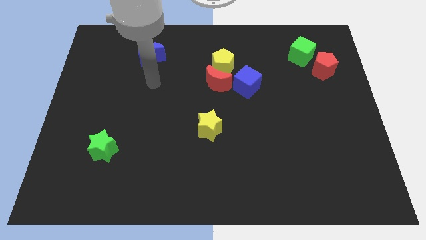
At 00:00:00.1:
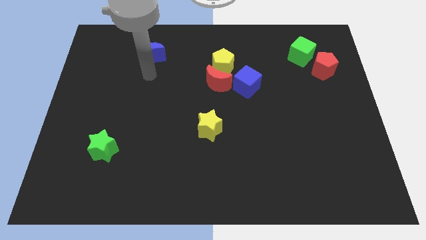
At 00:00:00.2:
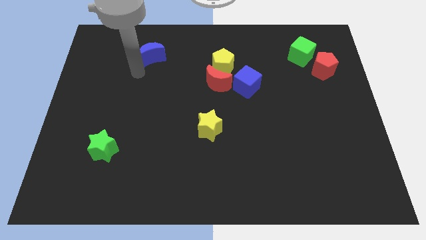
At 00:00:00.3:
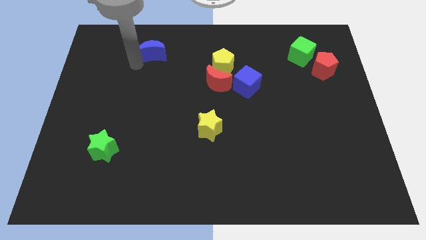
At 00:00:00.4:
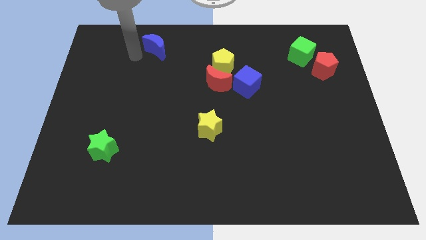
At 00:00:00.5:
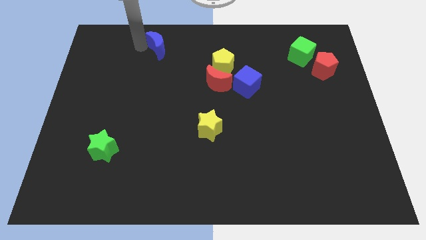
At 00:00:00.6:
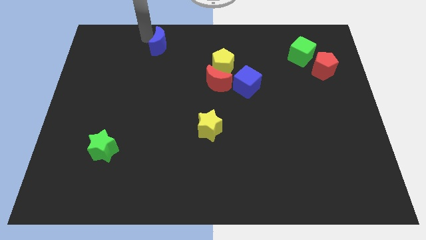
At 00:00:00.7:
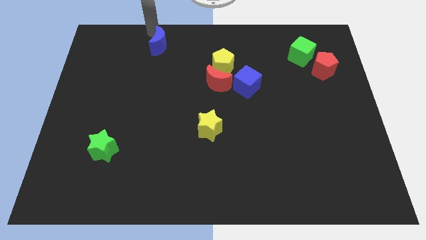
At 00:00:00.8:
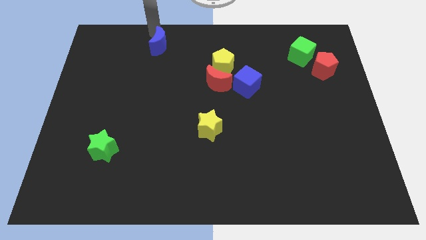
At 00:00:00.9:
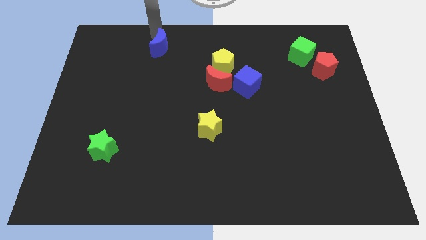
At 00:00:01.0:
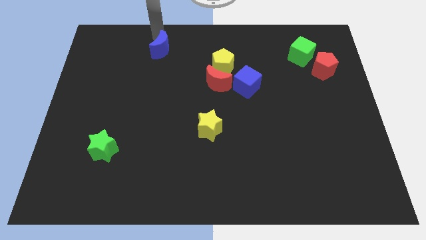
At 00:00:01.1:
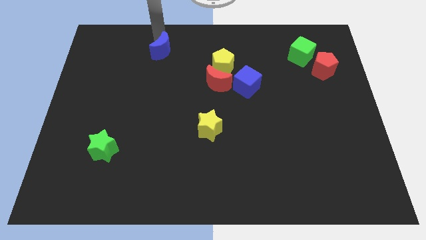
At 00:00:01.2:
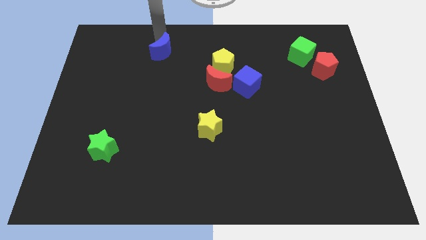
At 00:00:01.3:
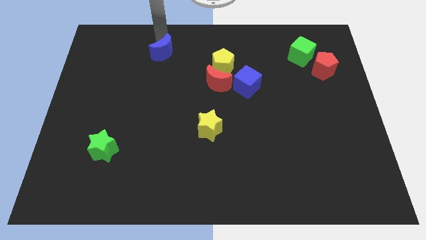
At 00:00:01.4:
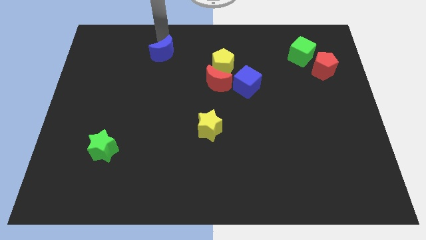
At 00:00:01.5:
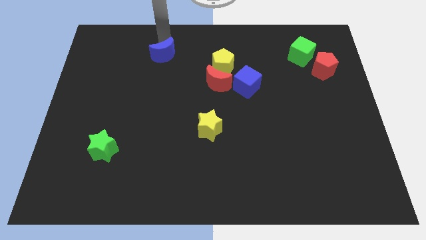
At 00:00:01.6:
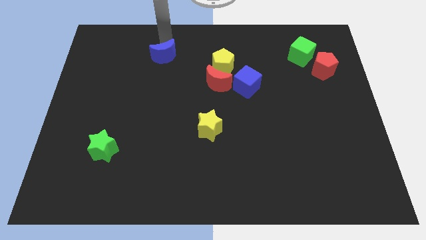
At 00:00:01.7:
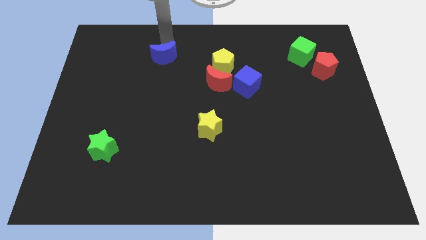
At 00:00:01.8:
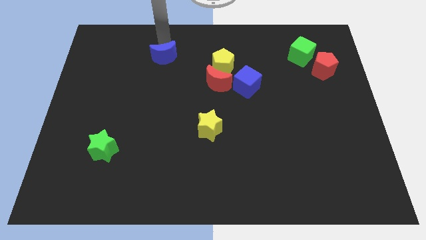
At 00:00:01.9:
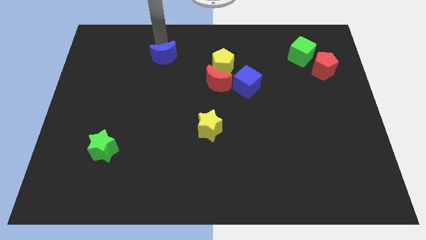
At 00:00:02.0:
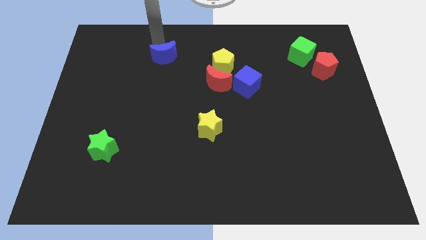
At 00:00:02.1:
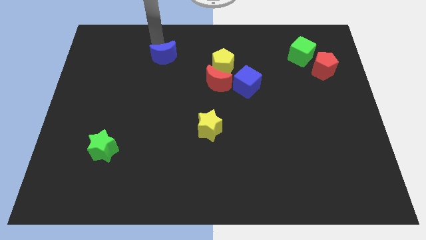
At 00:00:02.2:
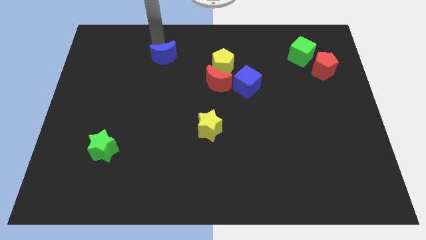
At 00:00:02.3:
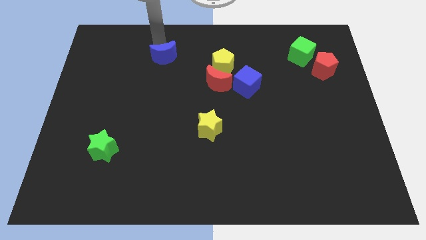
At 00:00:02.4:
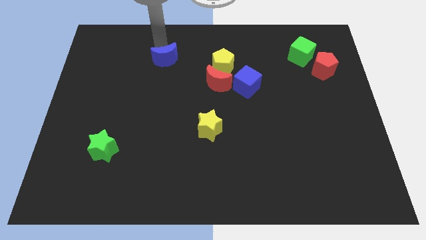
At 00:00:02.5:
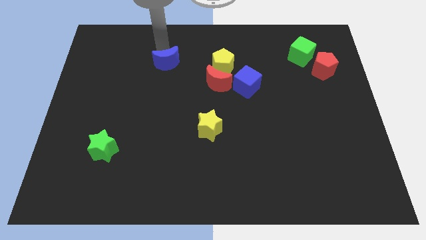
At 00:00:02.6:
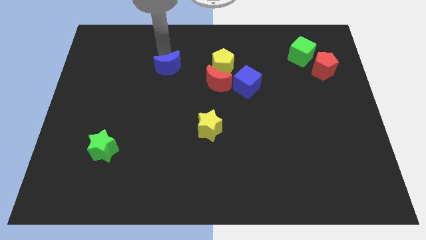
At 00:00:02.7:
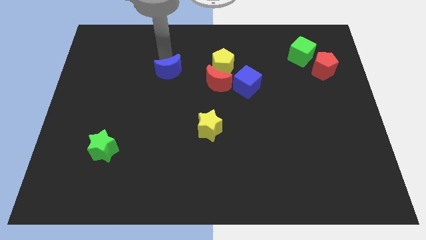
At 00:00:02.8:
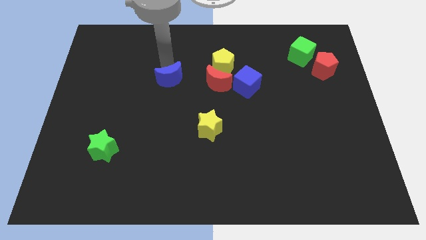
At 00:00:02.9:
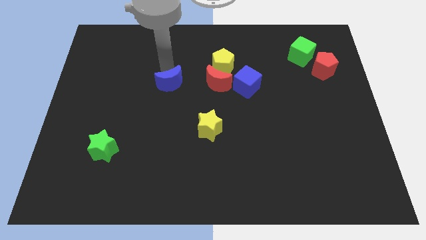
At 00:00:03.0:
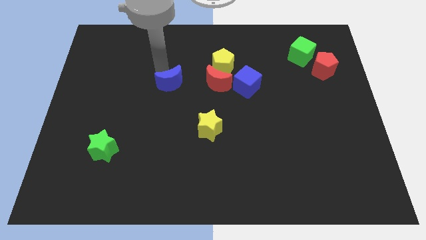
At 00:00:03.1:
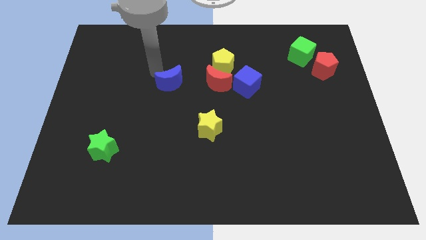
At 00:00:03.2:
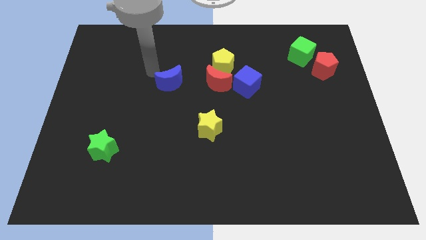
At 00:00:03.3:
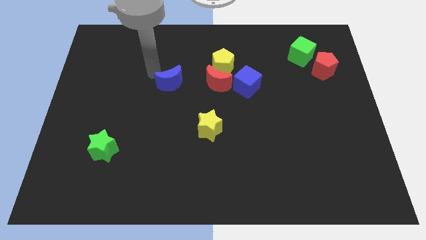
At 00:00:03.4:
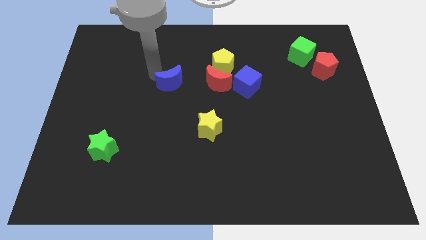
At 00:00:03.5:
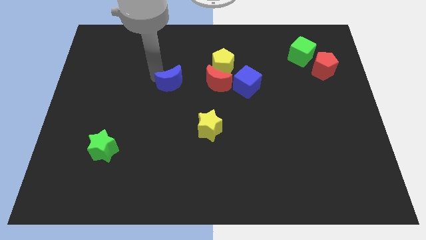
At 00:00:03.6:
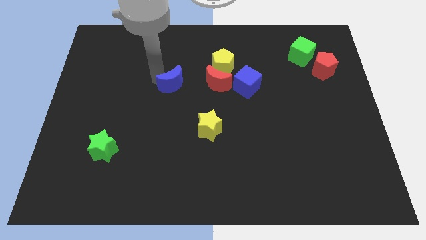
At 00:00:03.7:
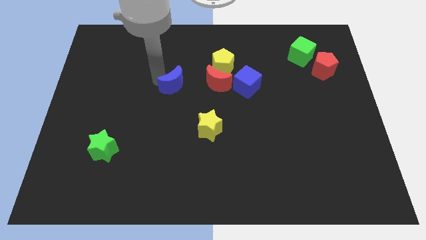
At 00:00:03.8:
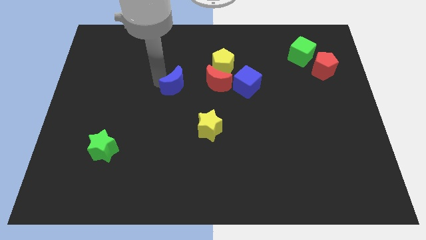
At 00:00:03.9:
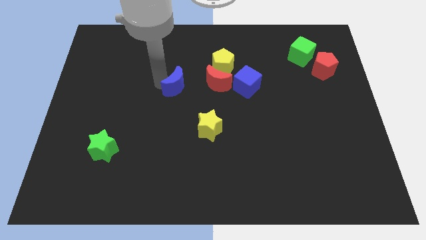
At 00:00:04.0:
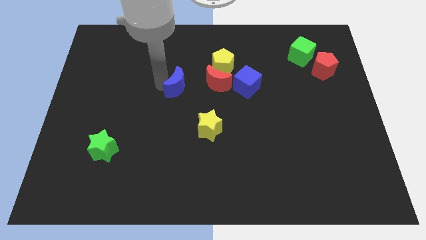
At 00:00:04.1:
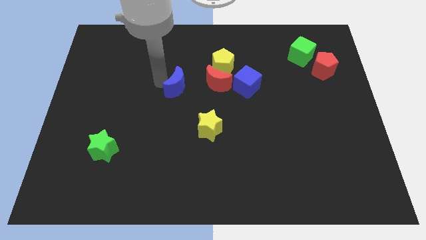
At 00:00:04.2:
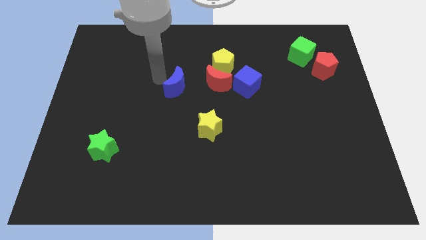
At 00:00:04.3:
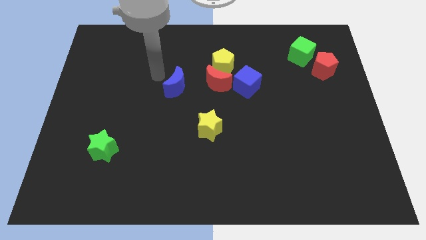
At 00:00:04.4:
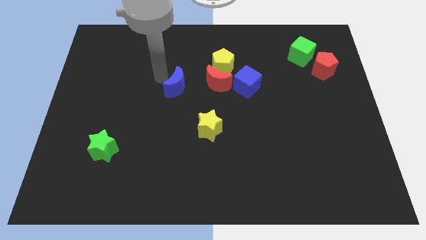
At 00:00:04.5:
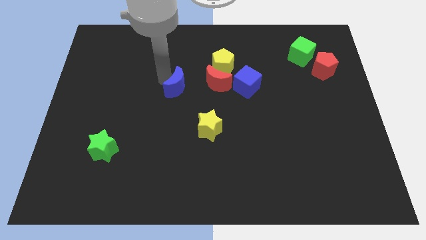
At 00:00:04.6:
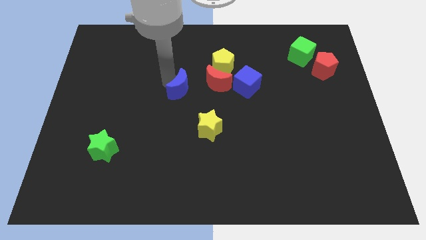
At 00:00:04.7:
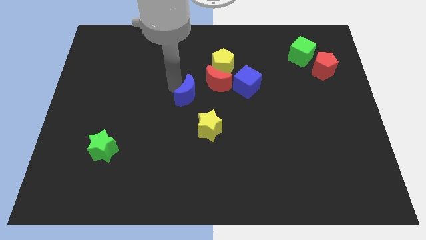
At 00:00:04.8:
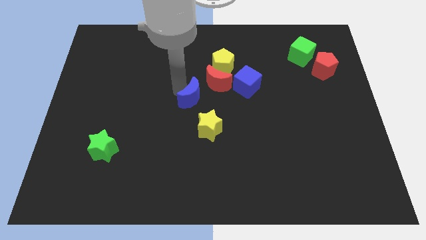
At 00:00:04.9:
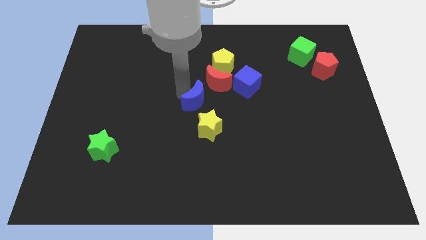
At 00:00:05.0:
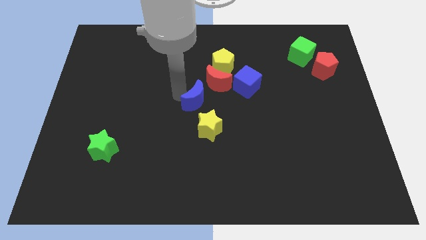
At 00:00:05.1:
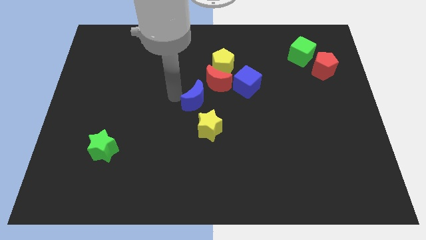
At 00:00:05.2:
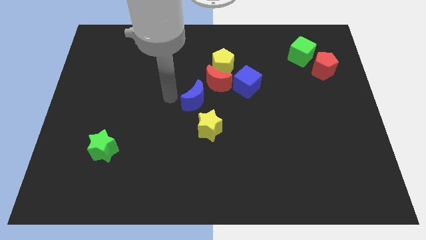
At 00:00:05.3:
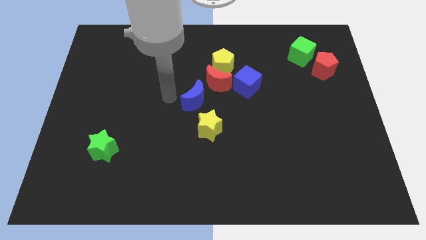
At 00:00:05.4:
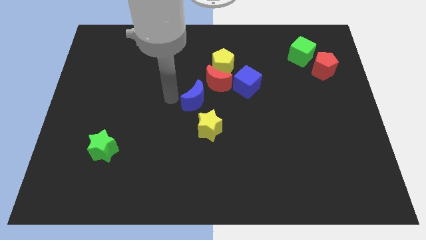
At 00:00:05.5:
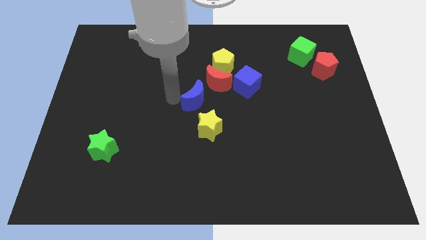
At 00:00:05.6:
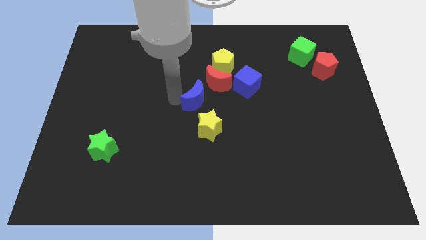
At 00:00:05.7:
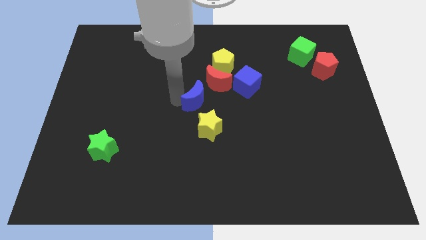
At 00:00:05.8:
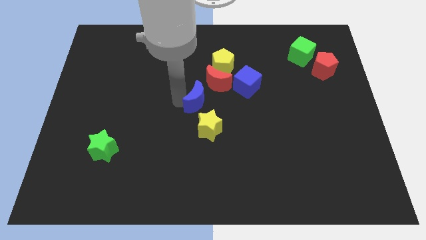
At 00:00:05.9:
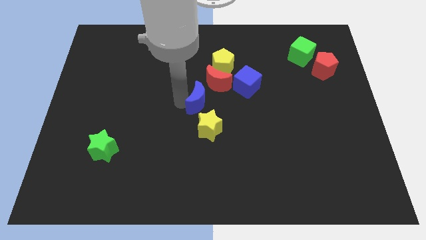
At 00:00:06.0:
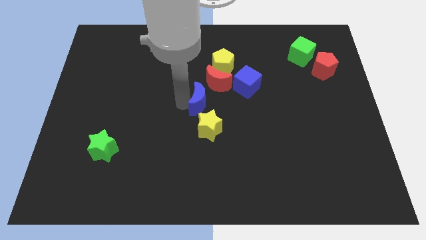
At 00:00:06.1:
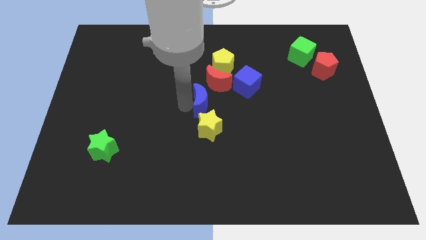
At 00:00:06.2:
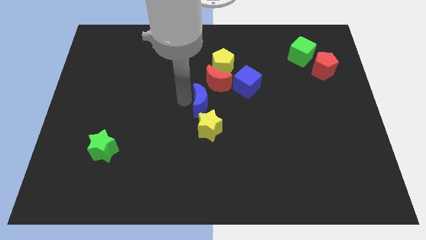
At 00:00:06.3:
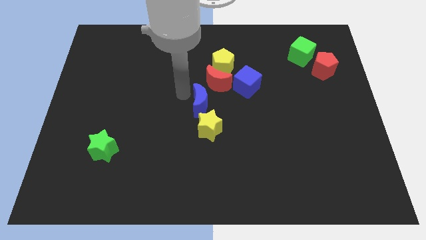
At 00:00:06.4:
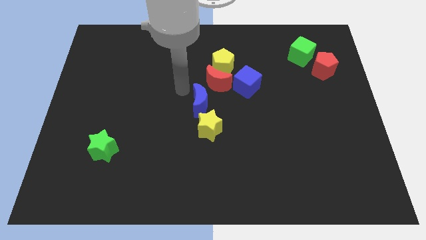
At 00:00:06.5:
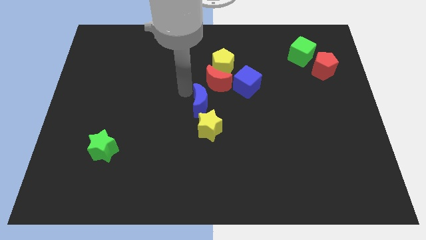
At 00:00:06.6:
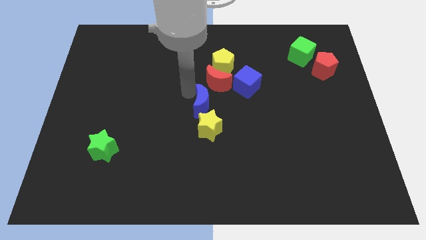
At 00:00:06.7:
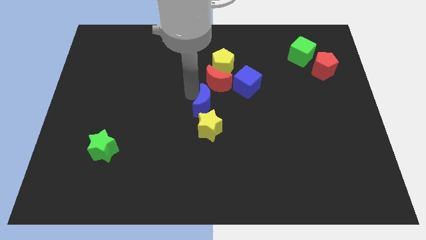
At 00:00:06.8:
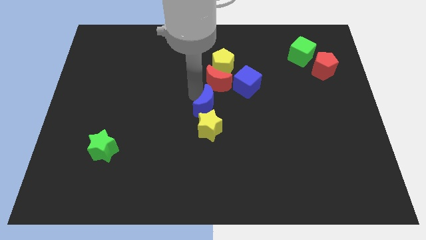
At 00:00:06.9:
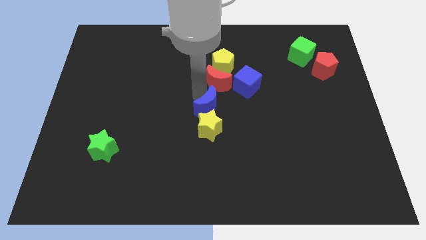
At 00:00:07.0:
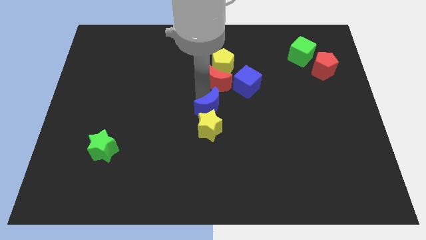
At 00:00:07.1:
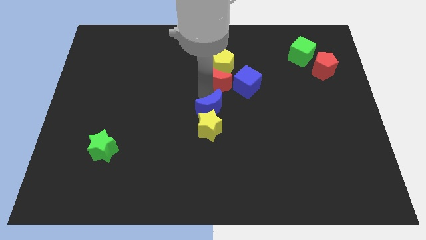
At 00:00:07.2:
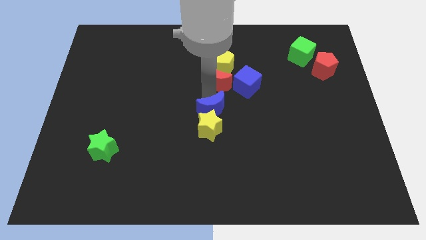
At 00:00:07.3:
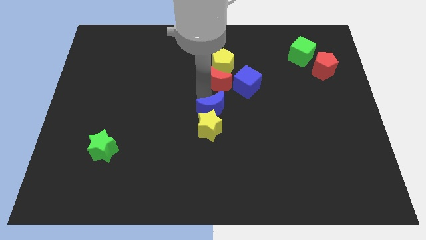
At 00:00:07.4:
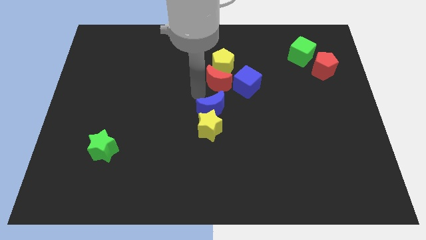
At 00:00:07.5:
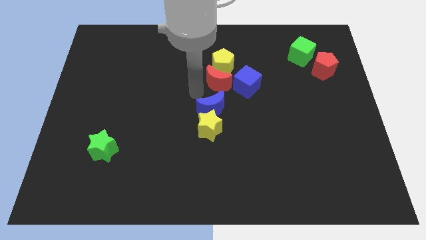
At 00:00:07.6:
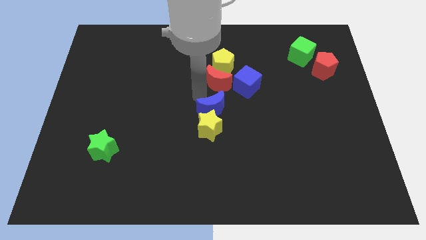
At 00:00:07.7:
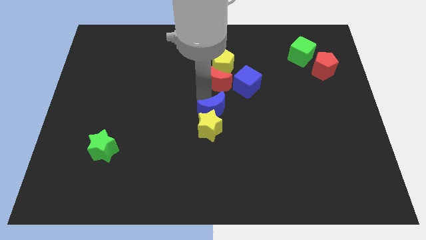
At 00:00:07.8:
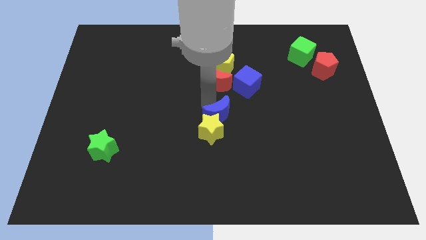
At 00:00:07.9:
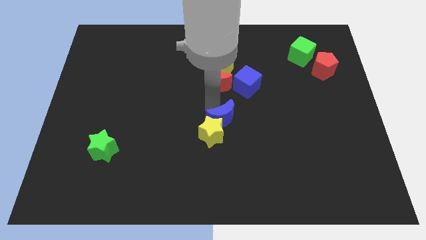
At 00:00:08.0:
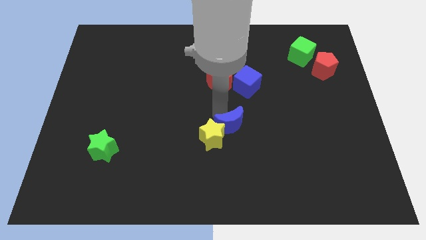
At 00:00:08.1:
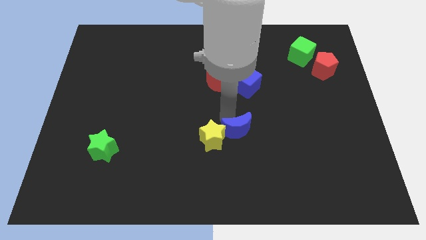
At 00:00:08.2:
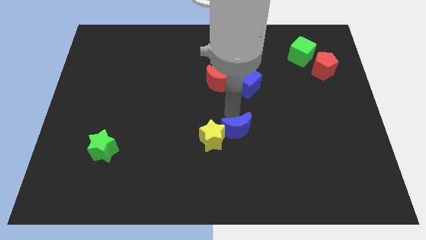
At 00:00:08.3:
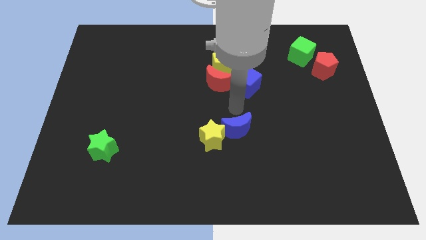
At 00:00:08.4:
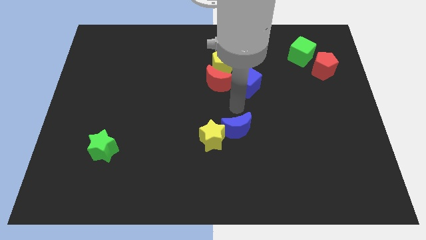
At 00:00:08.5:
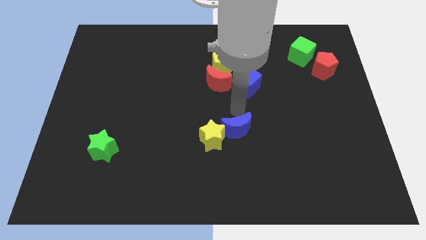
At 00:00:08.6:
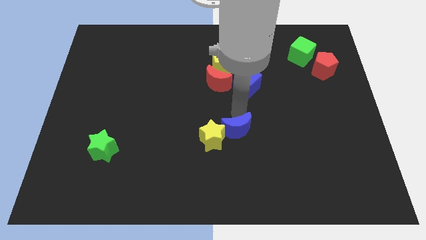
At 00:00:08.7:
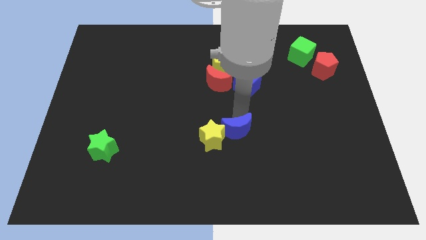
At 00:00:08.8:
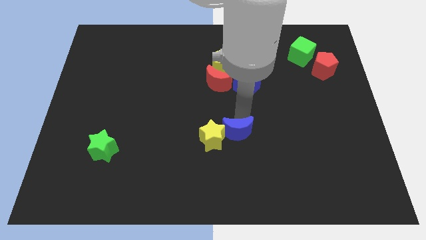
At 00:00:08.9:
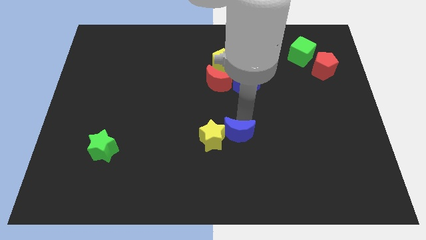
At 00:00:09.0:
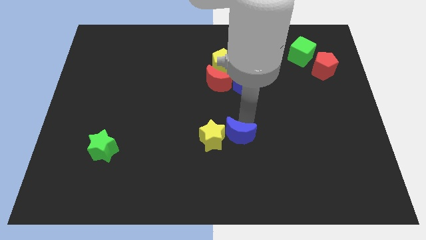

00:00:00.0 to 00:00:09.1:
push the blue moon to the bottom right side of the yellow star
